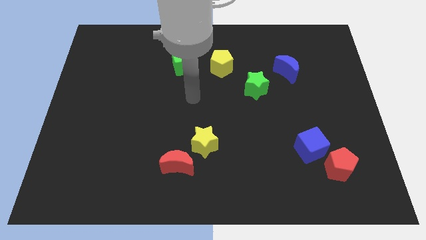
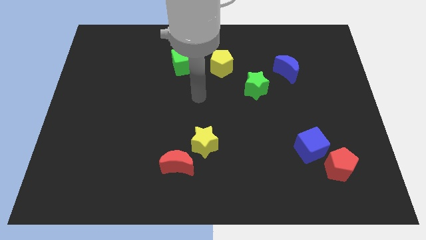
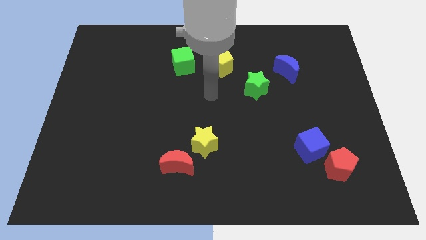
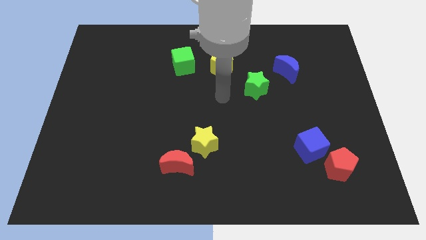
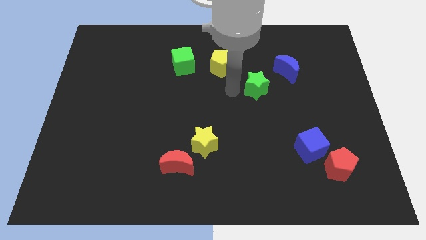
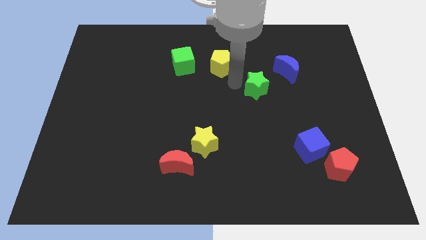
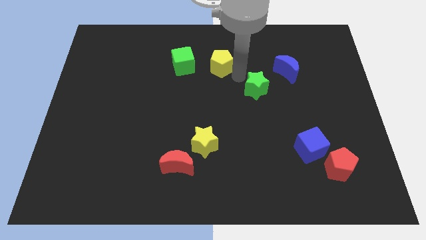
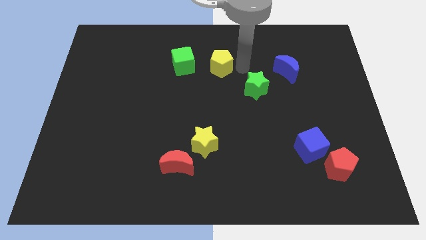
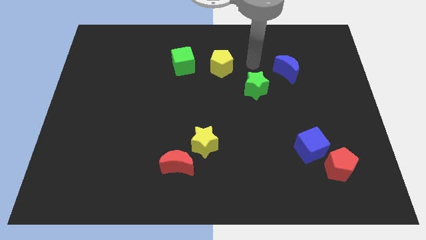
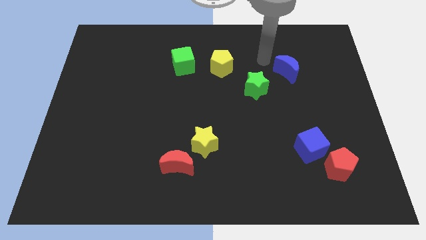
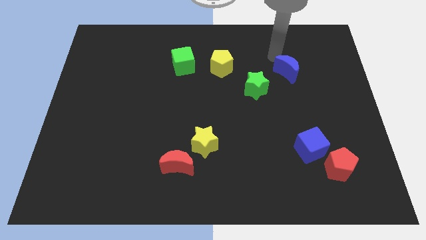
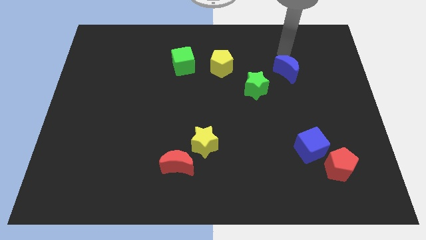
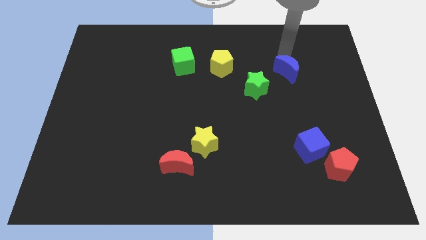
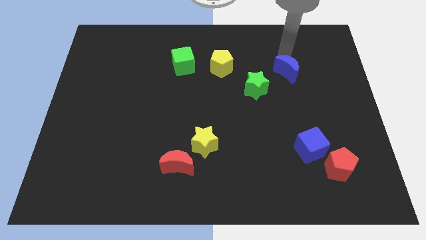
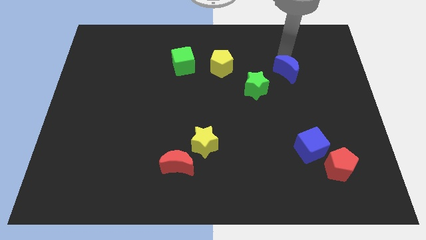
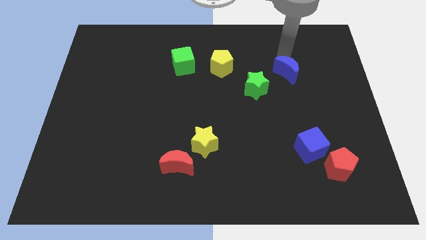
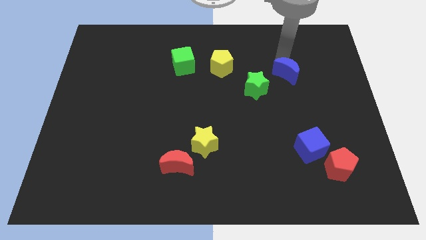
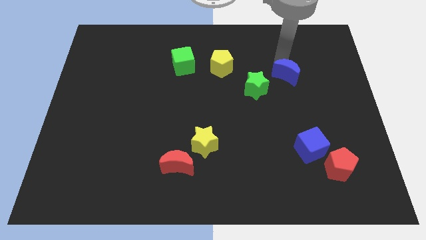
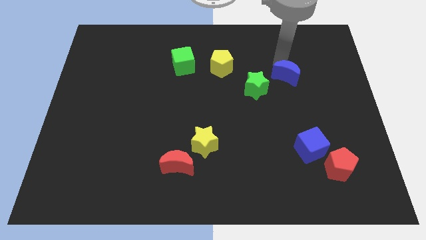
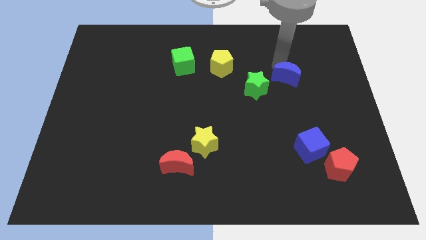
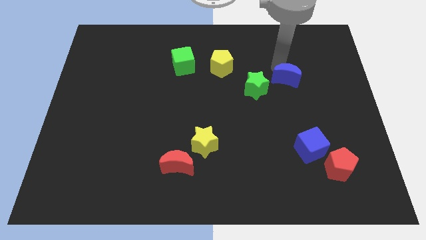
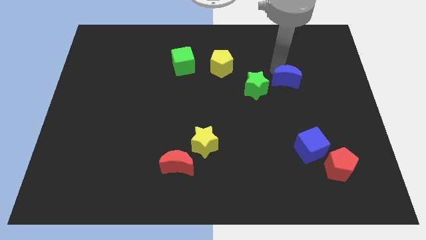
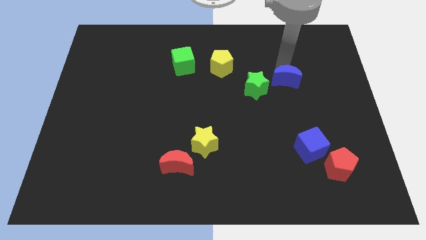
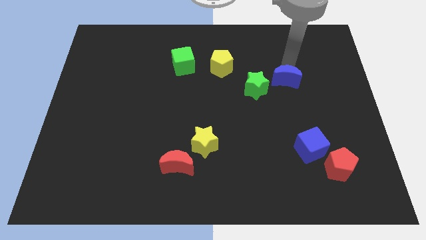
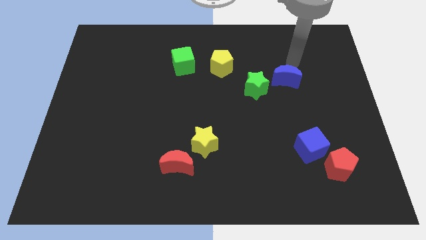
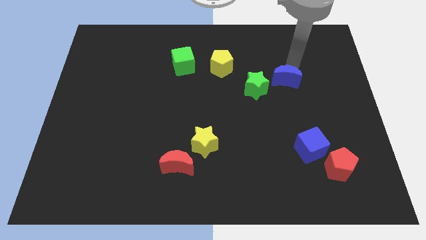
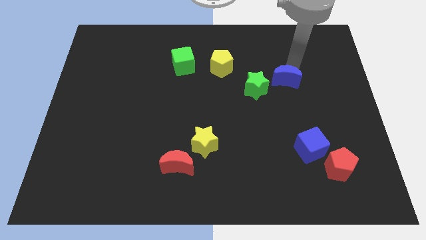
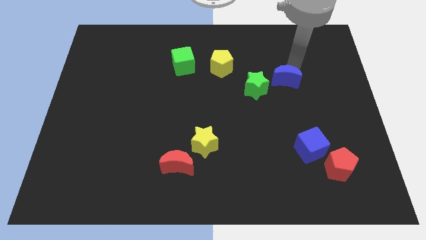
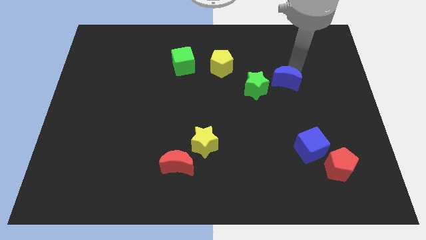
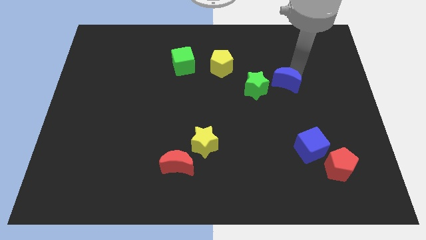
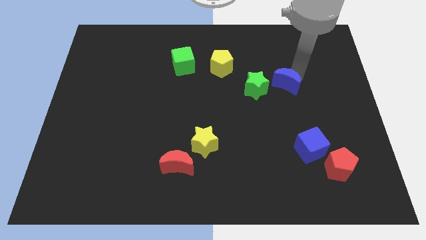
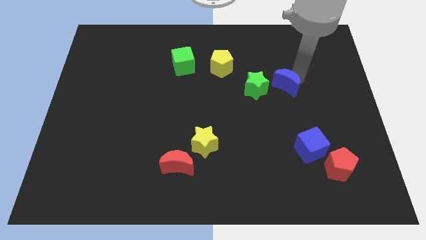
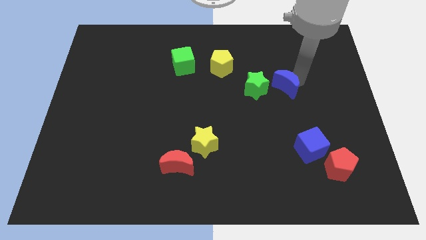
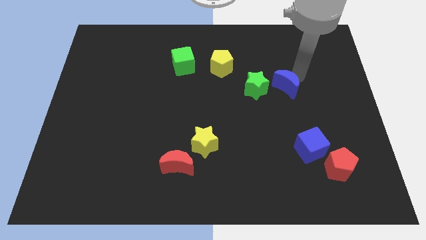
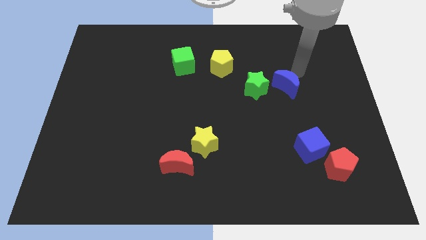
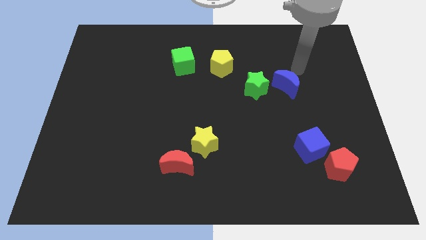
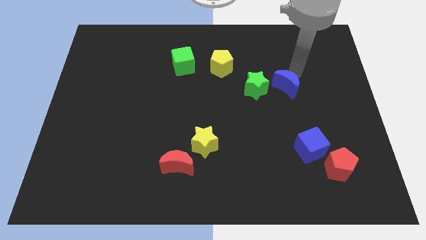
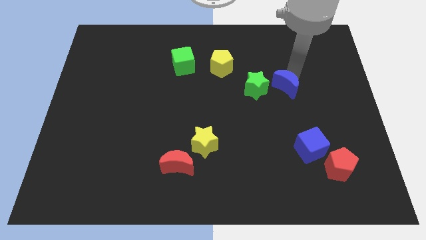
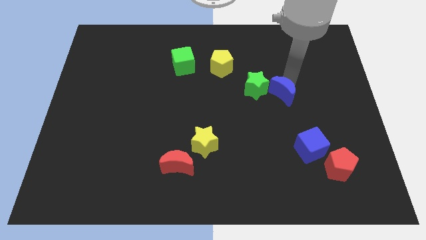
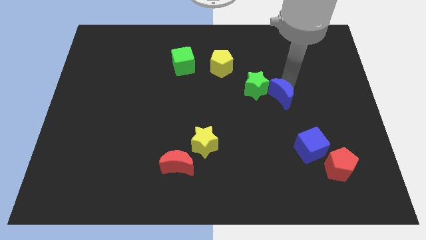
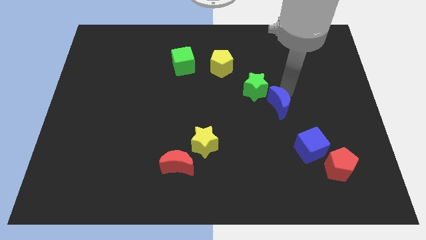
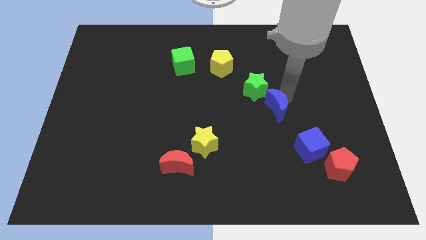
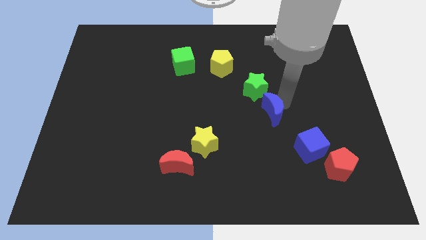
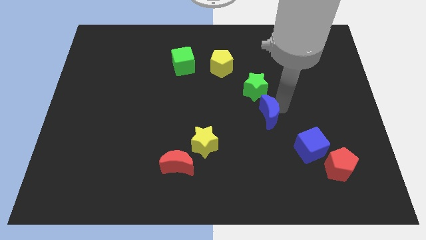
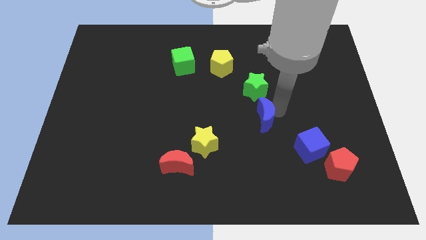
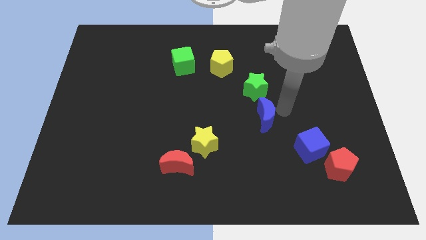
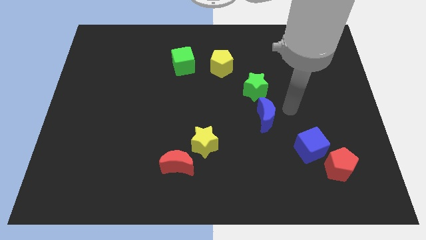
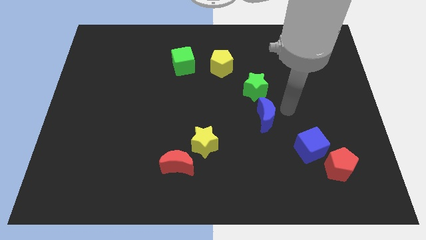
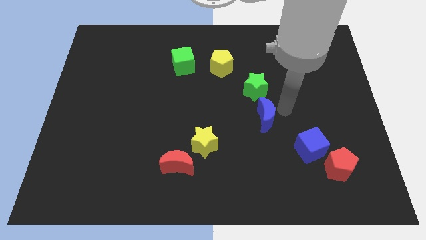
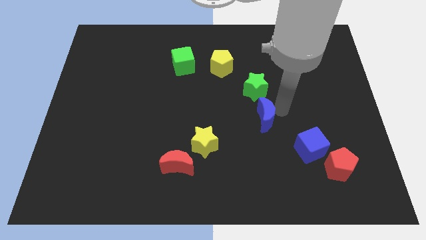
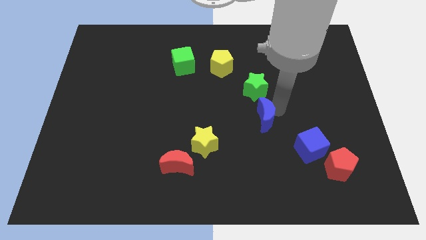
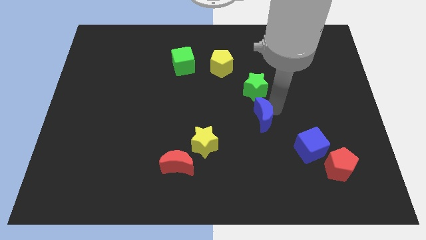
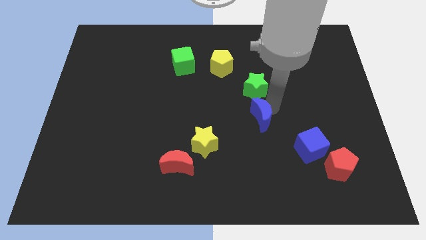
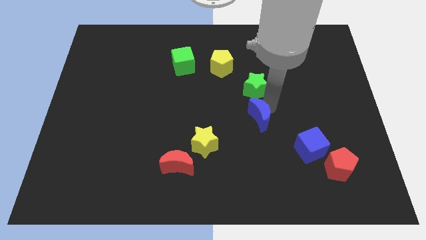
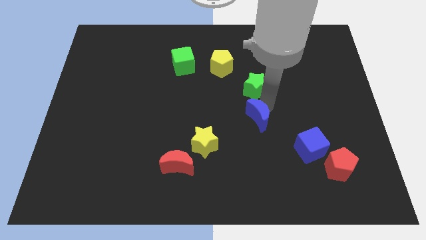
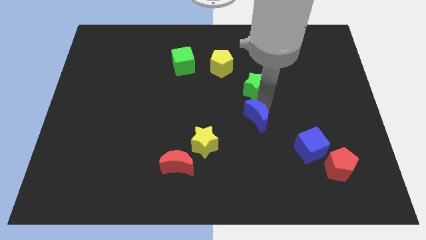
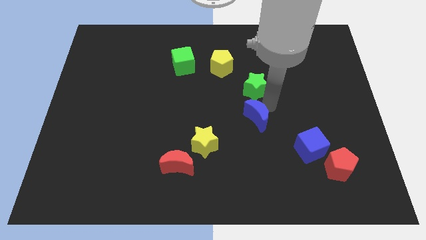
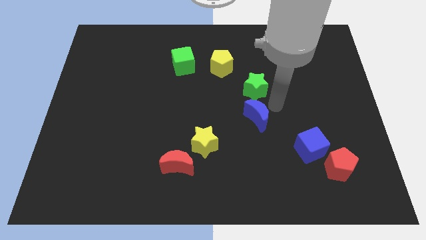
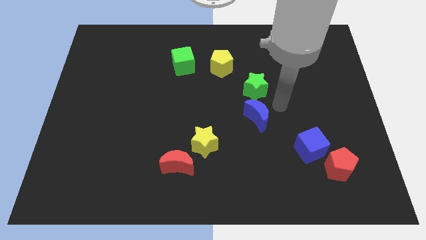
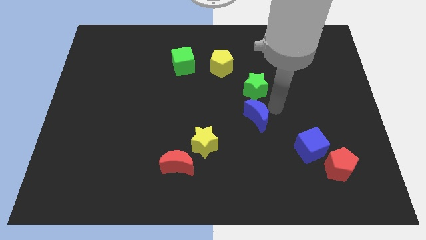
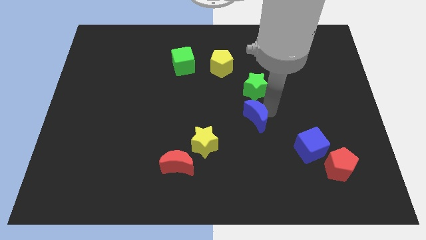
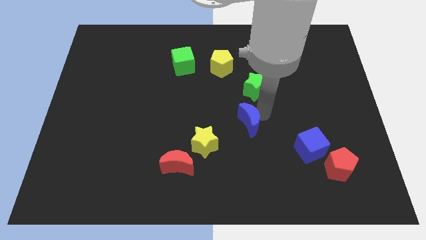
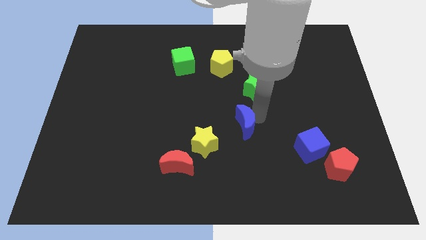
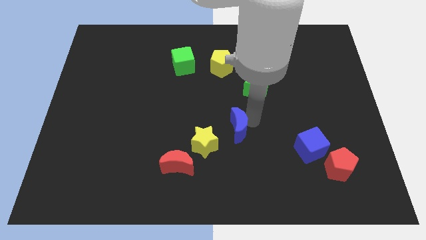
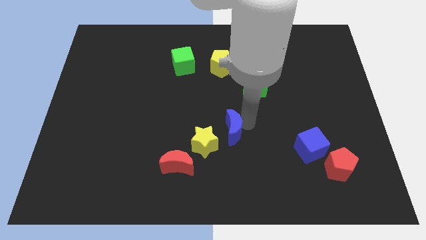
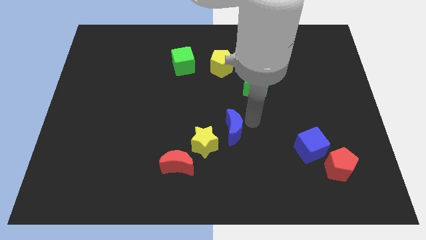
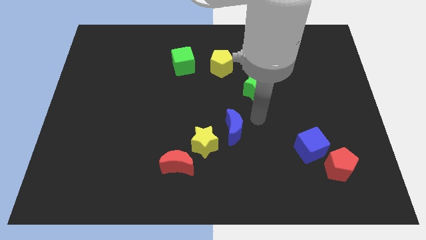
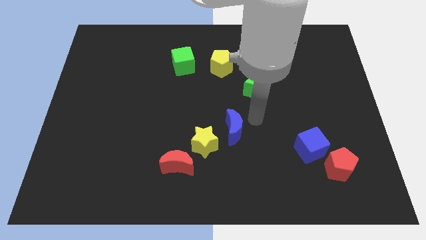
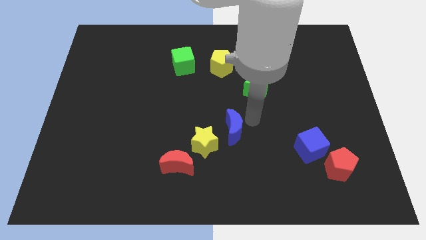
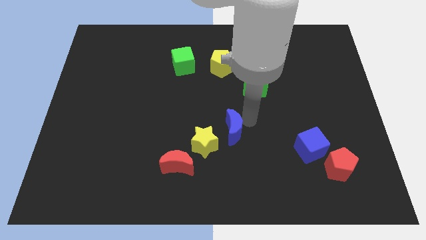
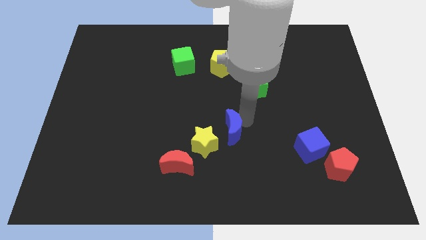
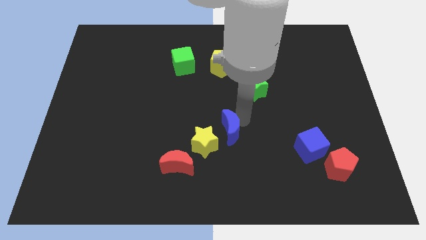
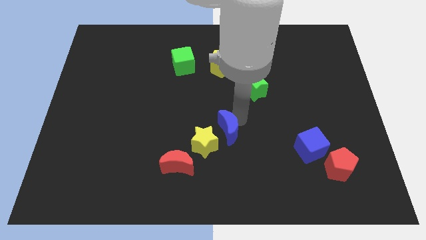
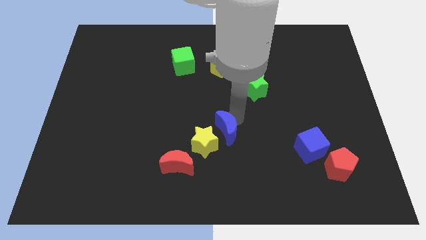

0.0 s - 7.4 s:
put the blue moon close to the yellow star

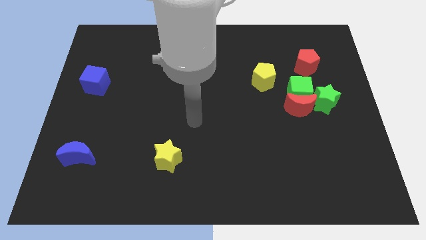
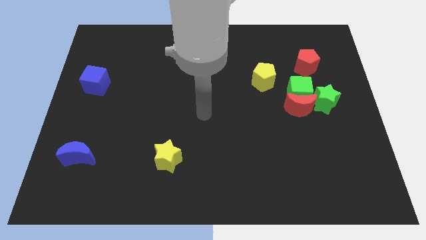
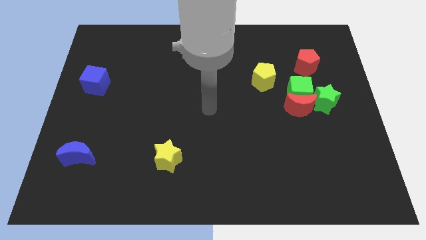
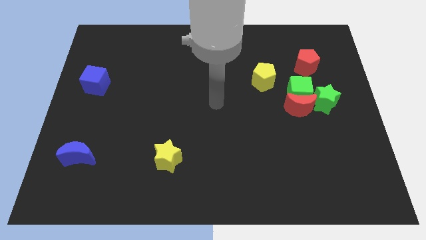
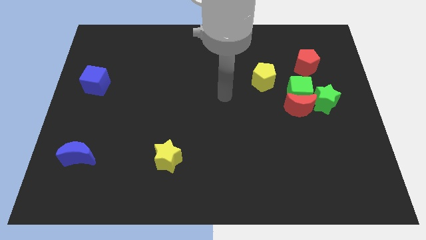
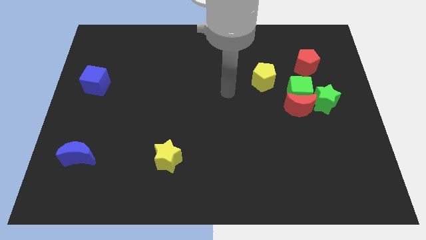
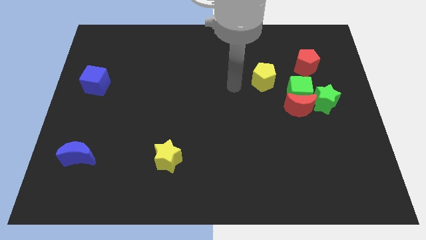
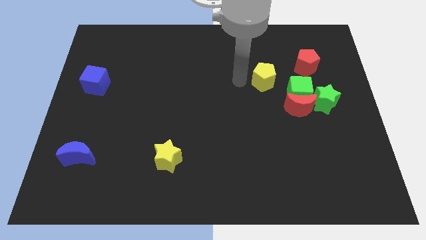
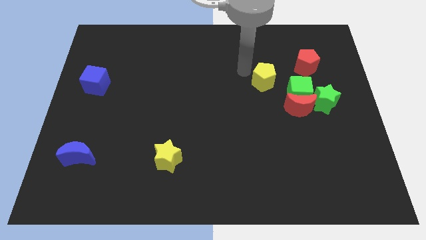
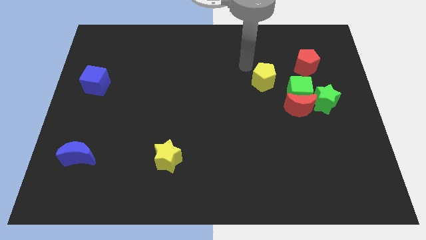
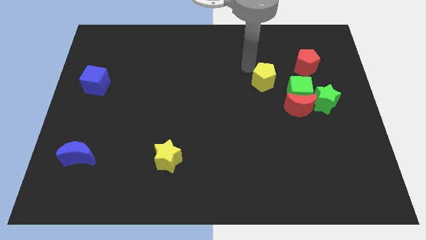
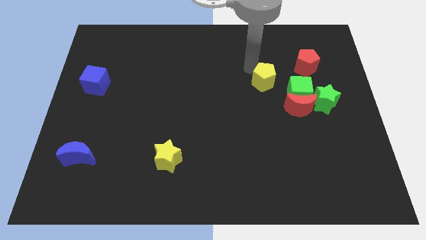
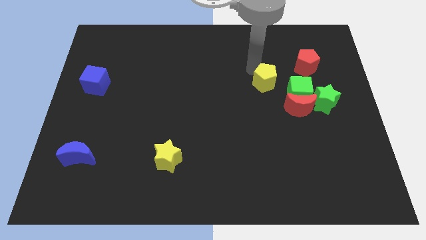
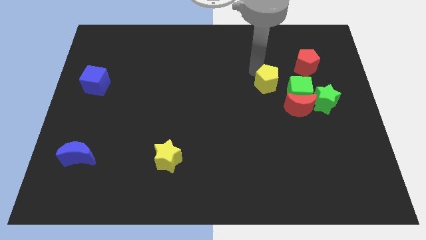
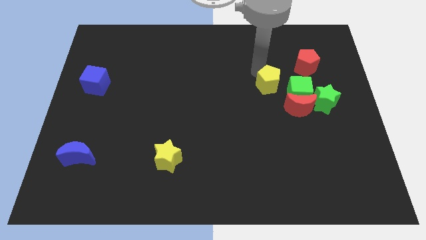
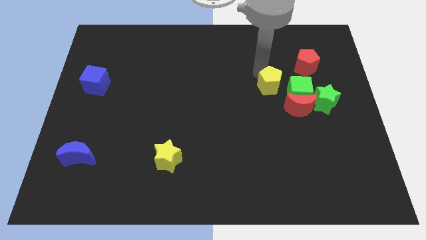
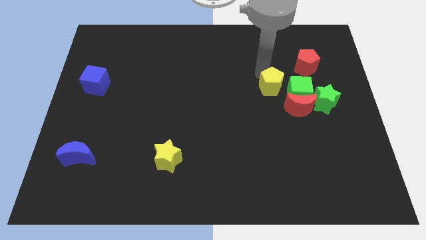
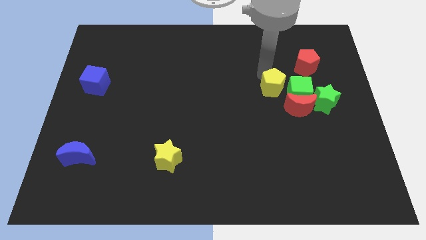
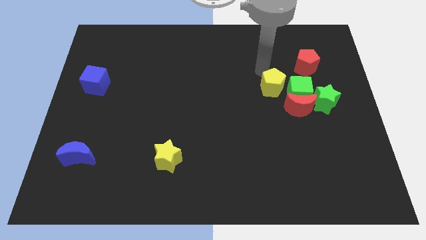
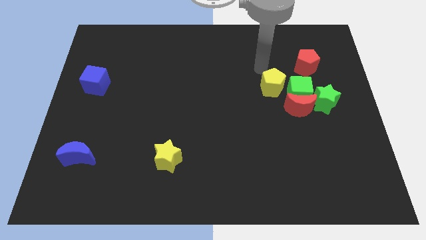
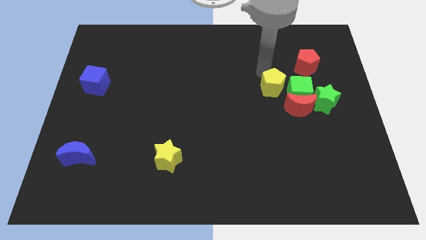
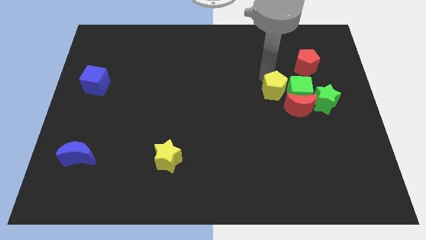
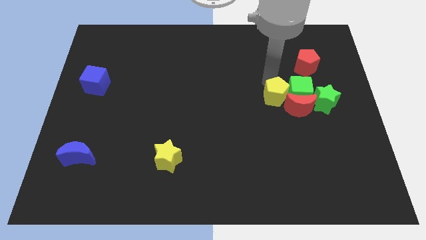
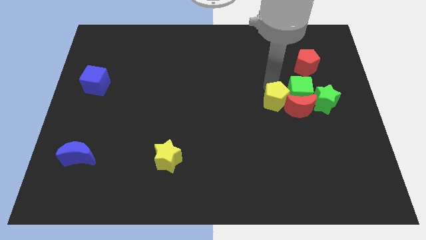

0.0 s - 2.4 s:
put the yellow pentagon close to the red moon
